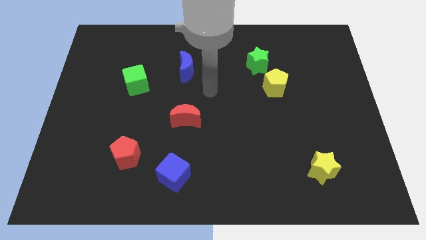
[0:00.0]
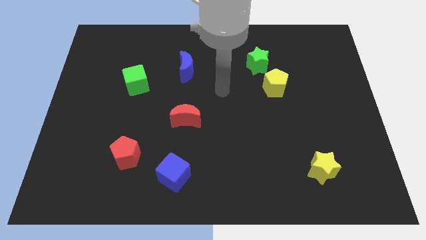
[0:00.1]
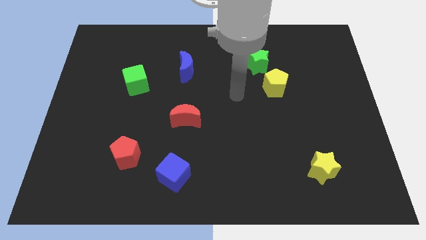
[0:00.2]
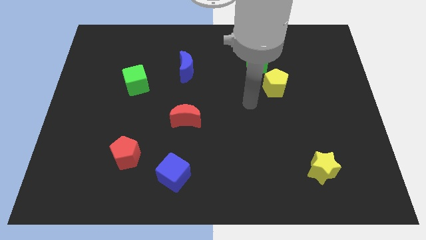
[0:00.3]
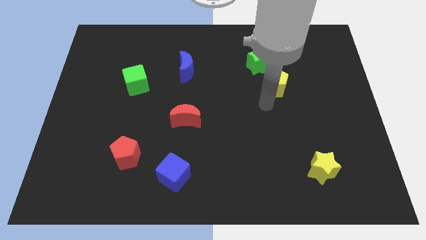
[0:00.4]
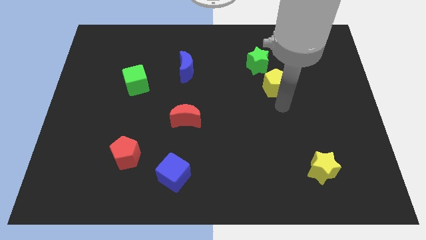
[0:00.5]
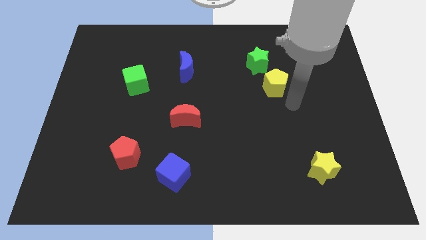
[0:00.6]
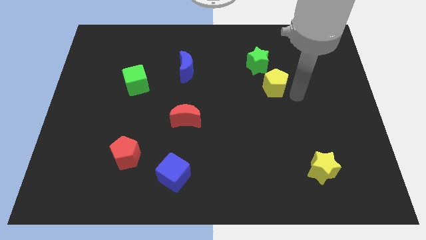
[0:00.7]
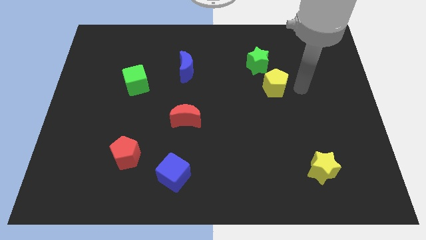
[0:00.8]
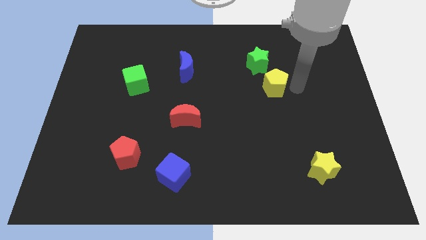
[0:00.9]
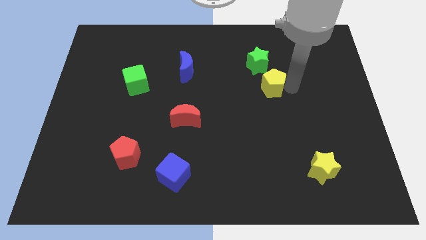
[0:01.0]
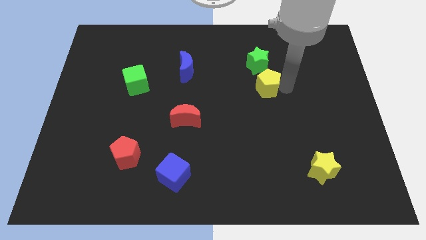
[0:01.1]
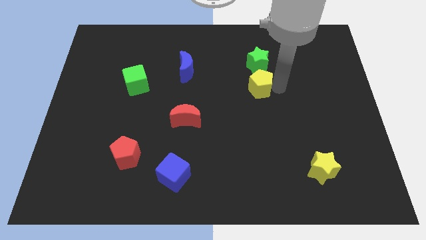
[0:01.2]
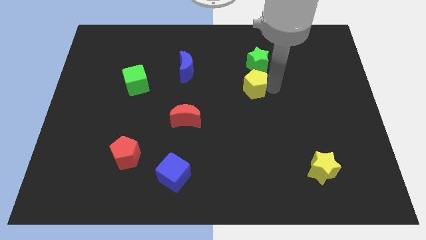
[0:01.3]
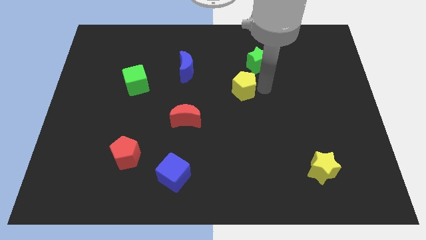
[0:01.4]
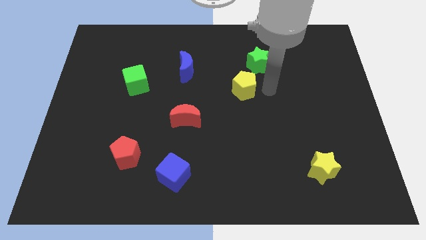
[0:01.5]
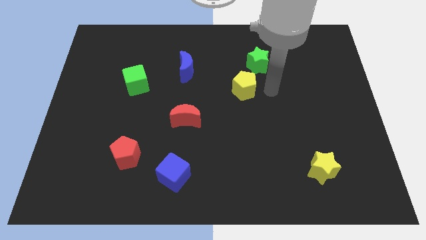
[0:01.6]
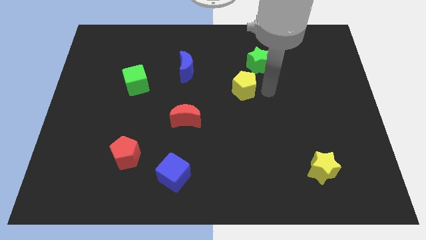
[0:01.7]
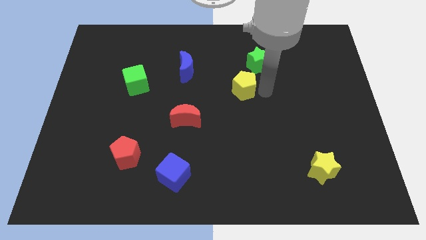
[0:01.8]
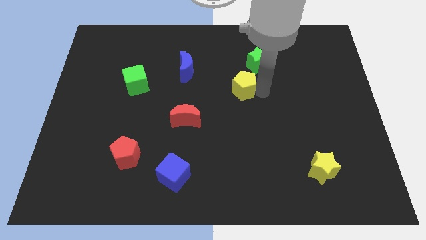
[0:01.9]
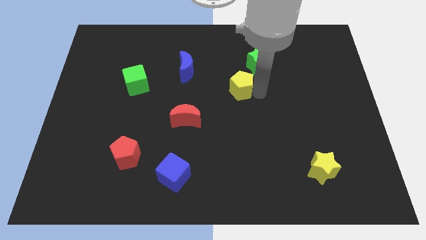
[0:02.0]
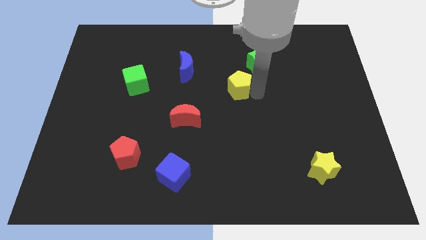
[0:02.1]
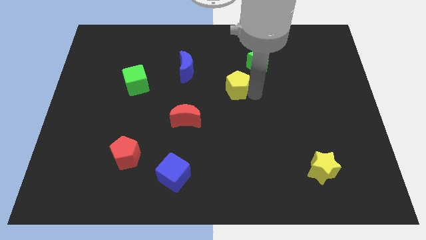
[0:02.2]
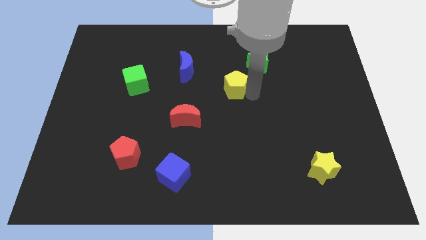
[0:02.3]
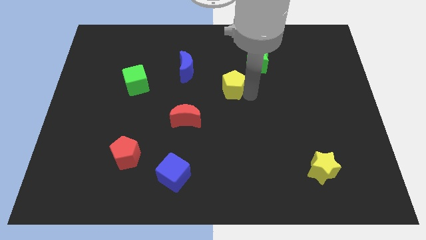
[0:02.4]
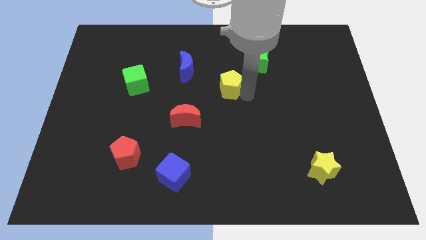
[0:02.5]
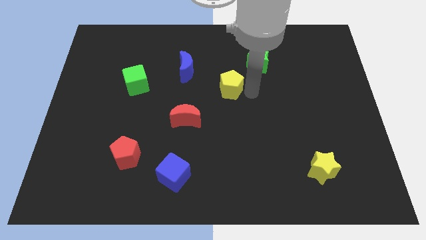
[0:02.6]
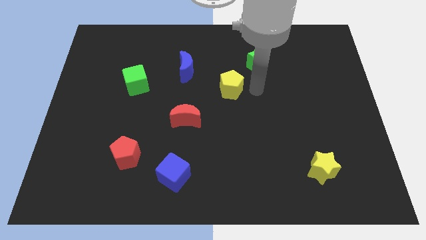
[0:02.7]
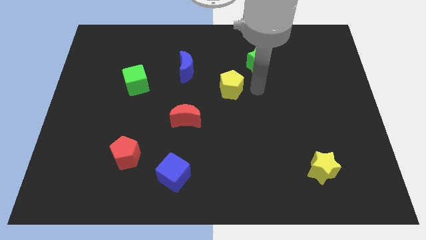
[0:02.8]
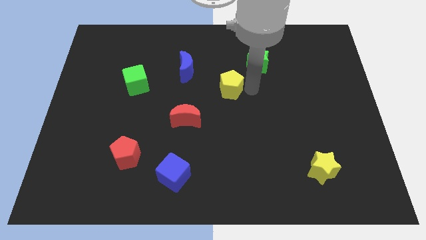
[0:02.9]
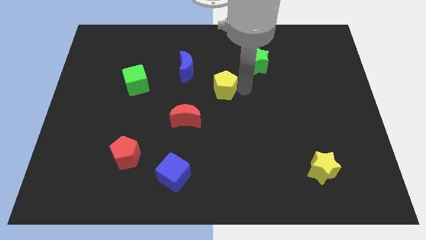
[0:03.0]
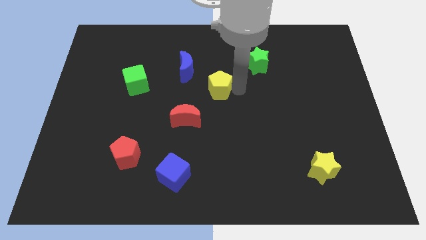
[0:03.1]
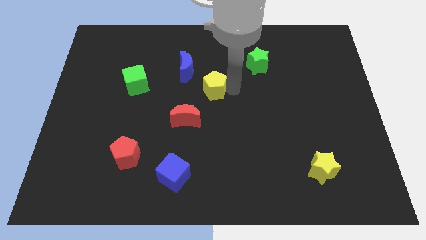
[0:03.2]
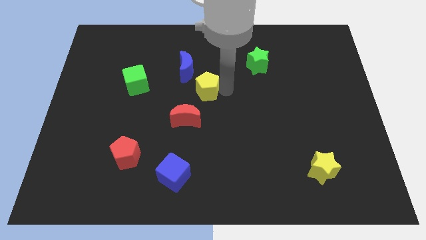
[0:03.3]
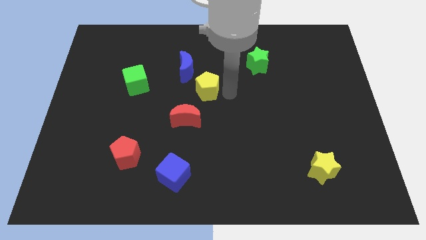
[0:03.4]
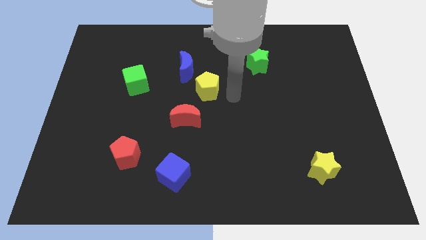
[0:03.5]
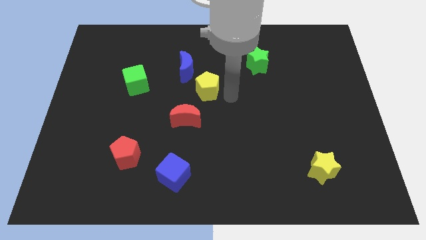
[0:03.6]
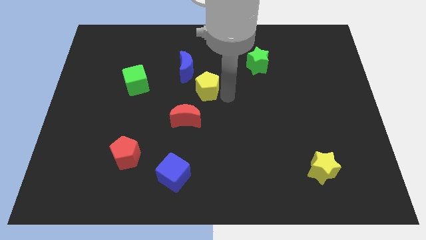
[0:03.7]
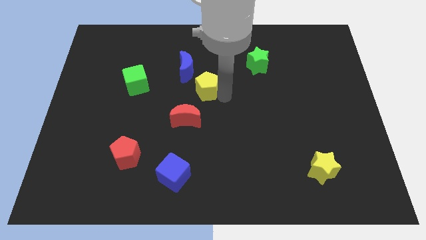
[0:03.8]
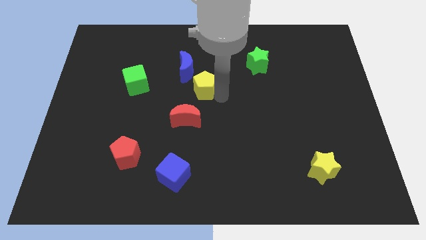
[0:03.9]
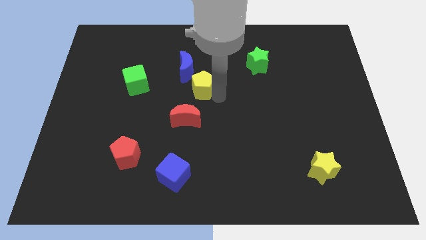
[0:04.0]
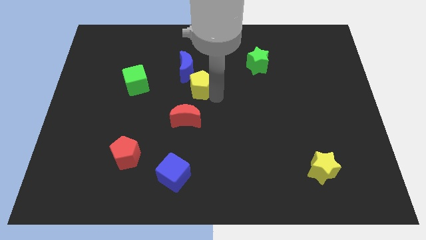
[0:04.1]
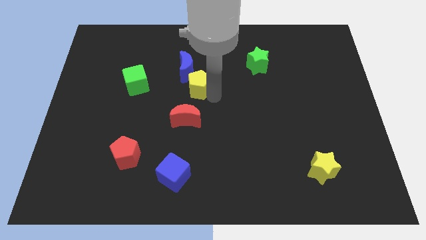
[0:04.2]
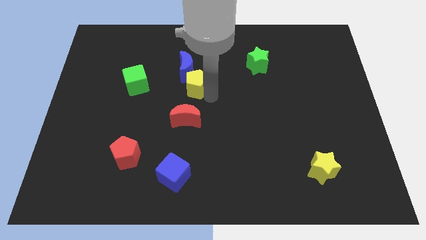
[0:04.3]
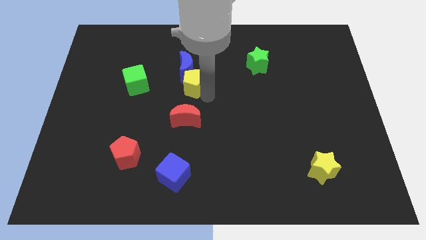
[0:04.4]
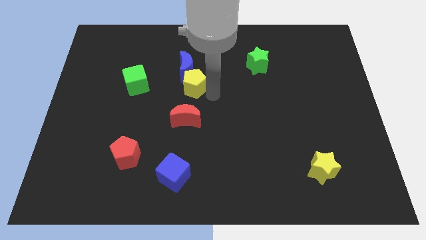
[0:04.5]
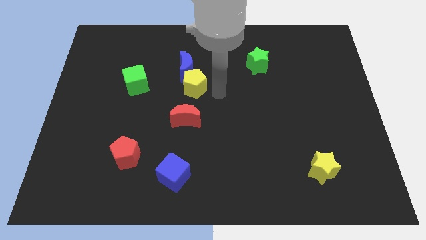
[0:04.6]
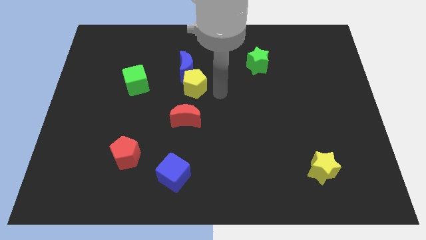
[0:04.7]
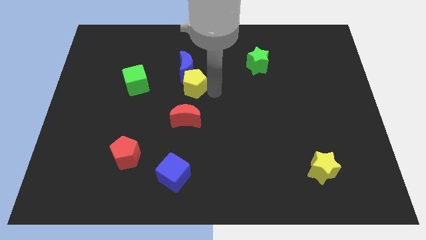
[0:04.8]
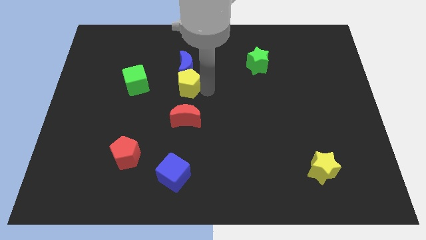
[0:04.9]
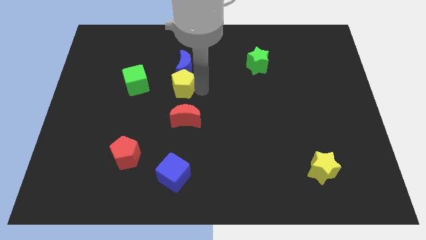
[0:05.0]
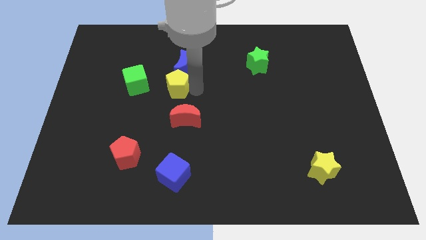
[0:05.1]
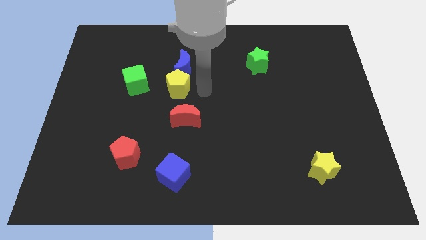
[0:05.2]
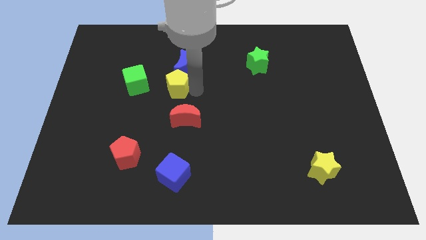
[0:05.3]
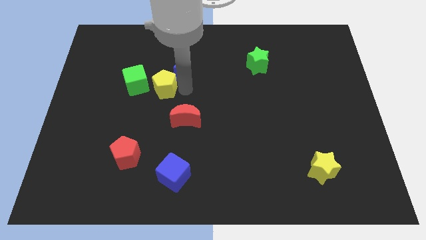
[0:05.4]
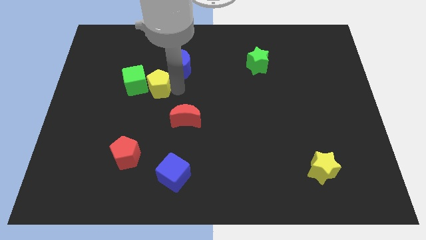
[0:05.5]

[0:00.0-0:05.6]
put the yellow pentagon towards the green cube

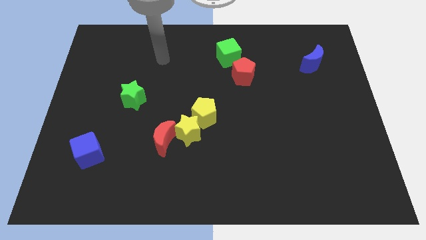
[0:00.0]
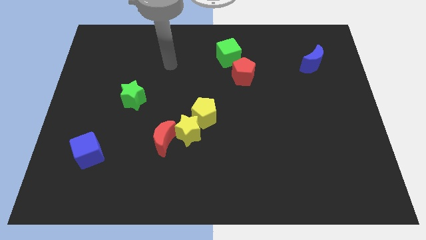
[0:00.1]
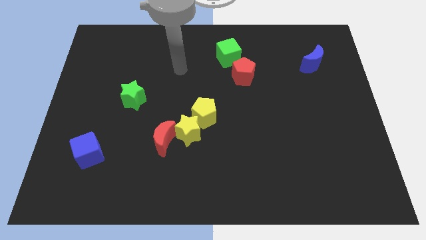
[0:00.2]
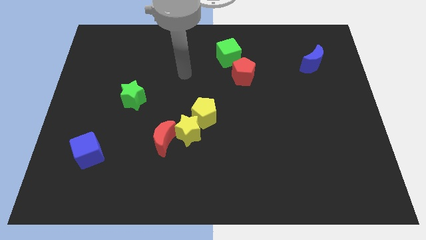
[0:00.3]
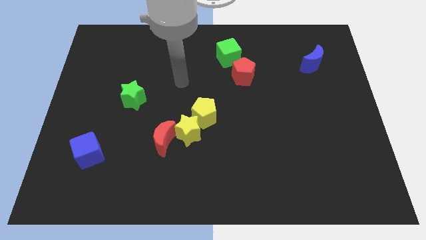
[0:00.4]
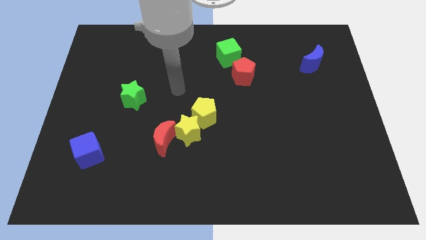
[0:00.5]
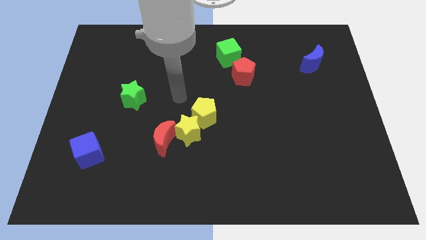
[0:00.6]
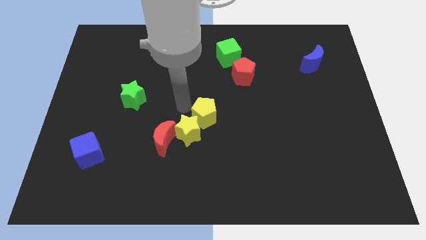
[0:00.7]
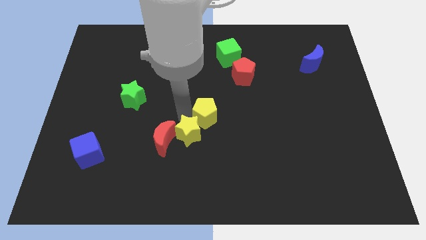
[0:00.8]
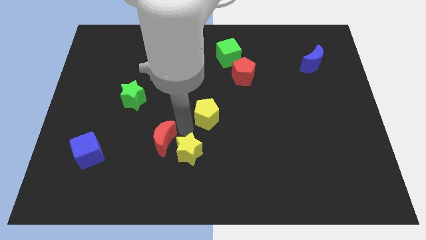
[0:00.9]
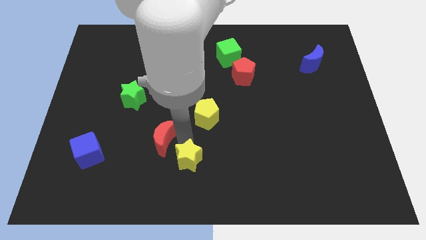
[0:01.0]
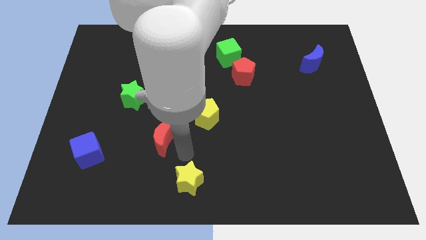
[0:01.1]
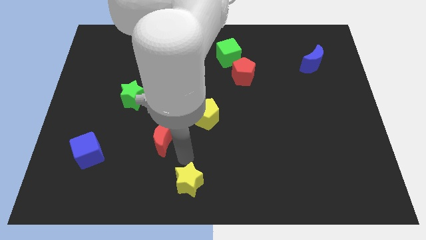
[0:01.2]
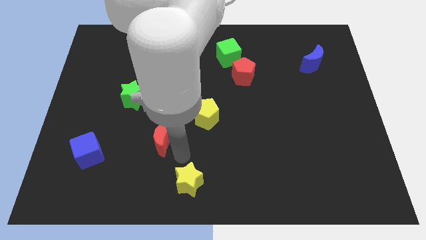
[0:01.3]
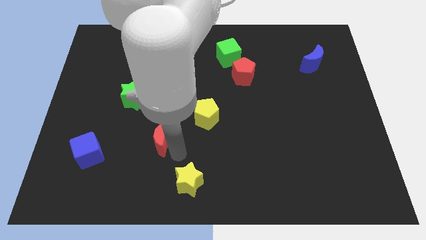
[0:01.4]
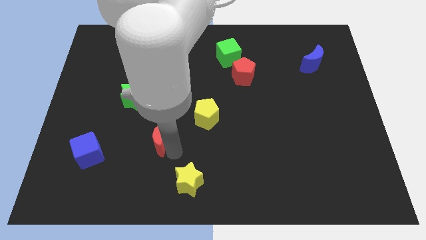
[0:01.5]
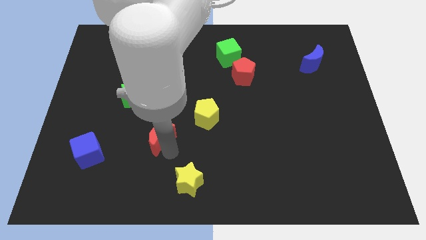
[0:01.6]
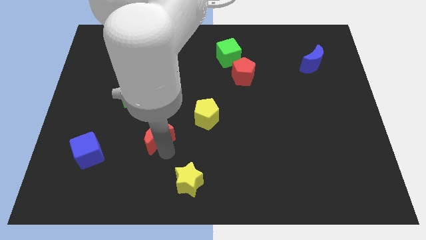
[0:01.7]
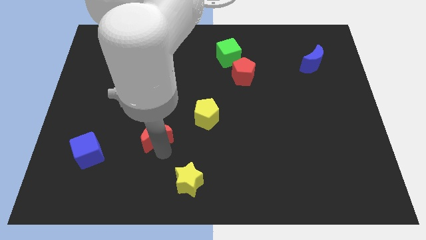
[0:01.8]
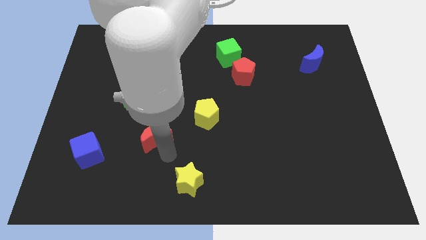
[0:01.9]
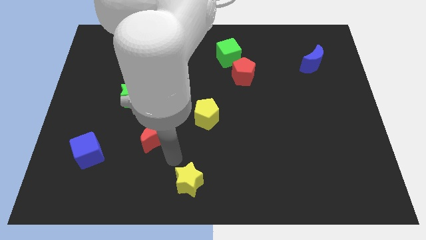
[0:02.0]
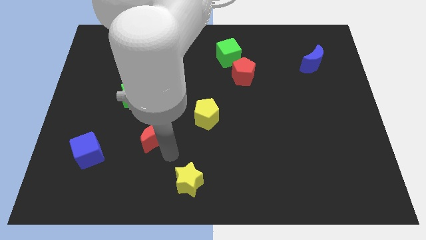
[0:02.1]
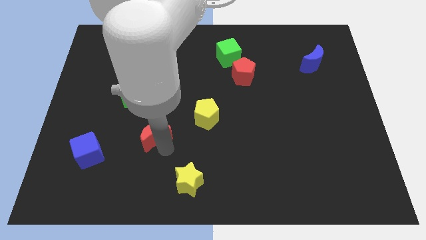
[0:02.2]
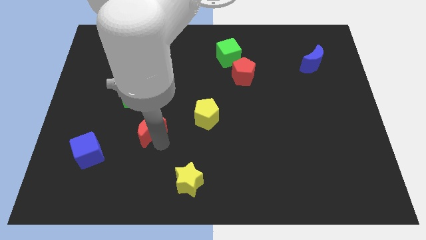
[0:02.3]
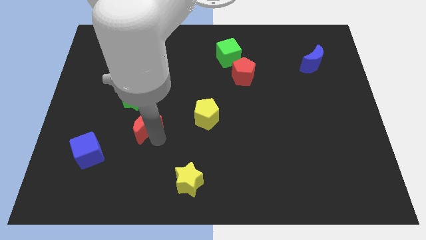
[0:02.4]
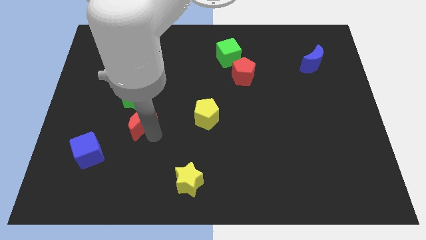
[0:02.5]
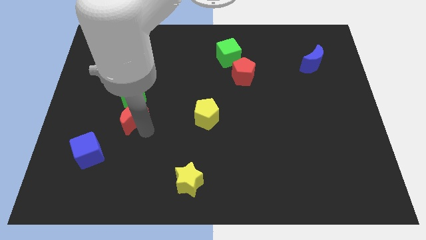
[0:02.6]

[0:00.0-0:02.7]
move the red moon towards the green star
